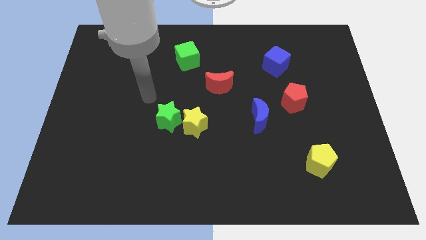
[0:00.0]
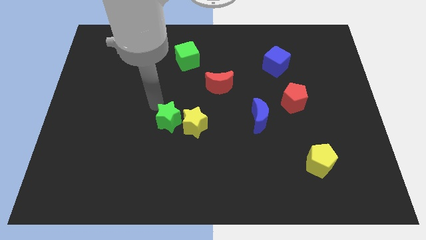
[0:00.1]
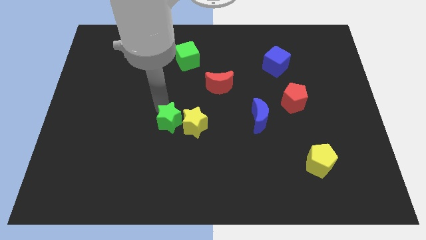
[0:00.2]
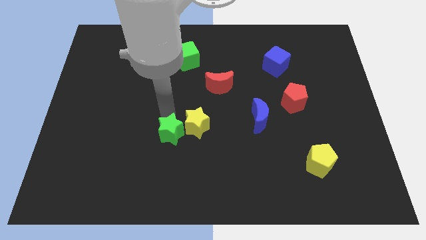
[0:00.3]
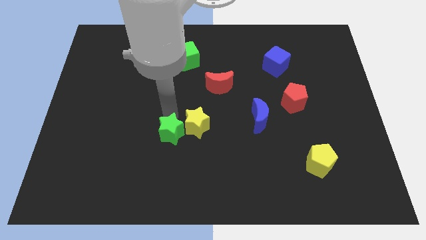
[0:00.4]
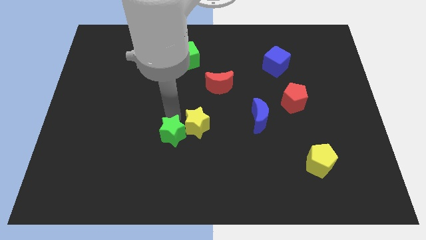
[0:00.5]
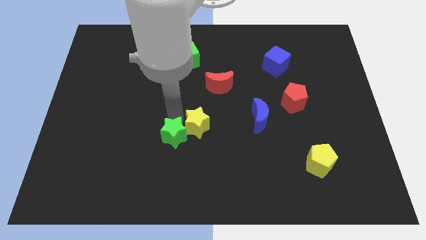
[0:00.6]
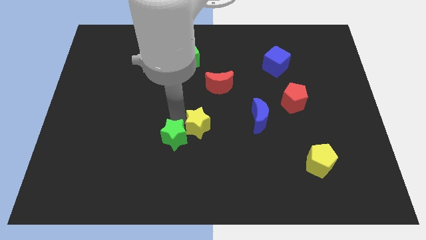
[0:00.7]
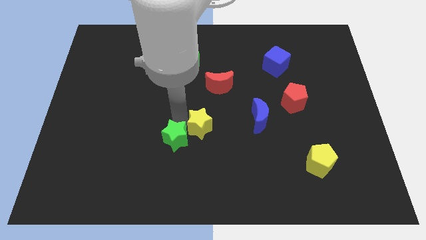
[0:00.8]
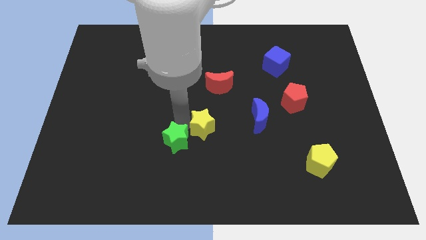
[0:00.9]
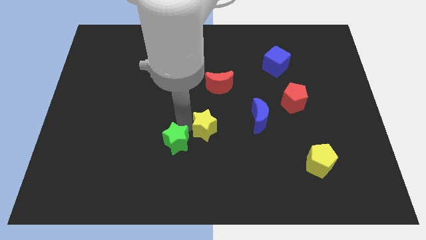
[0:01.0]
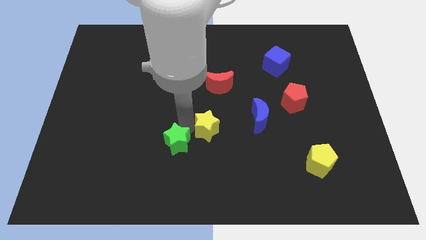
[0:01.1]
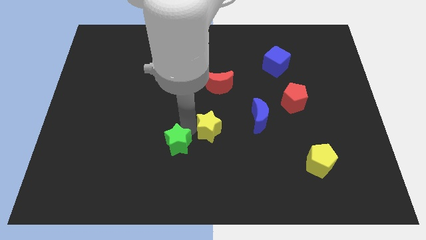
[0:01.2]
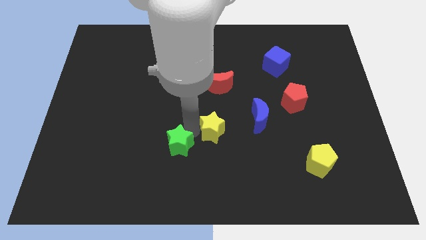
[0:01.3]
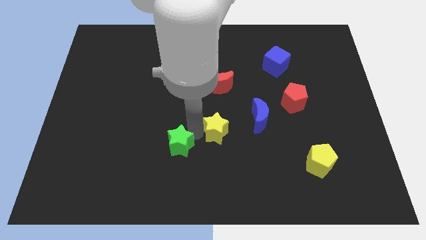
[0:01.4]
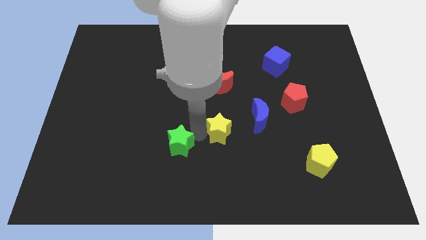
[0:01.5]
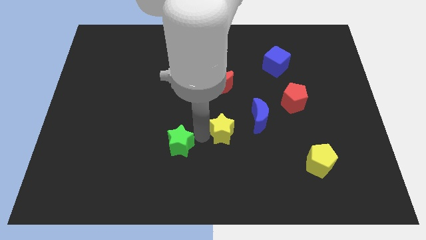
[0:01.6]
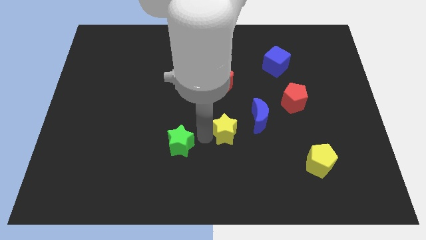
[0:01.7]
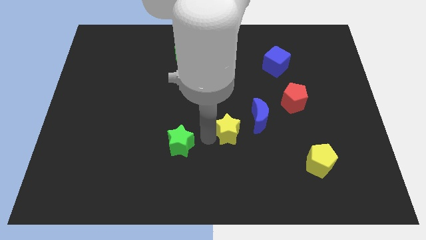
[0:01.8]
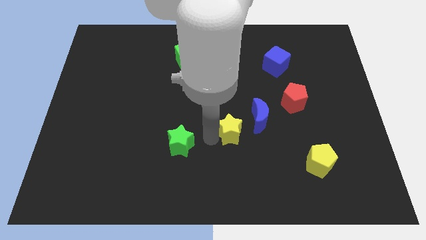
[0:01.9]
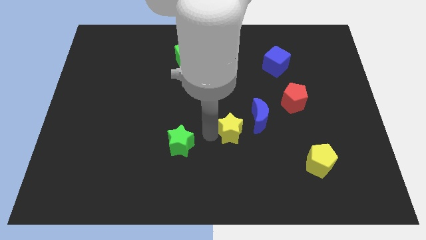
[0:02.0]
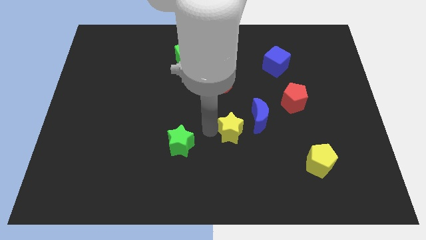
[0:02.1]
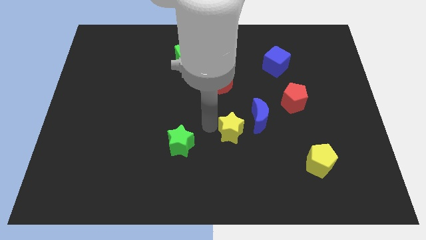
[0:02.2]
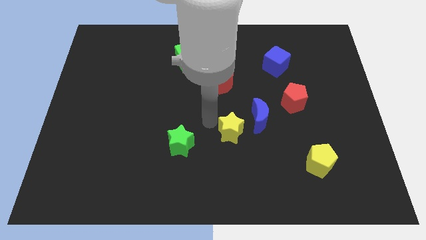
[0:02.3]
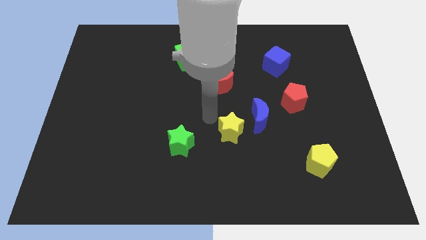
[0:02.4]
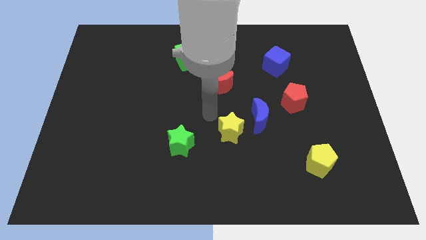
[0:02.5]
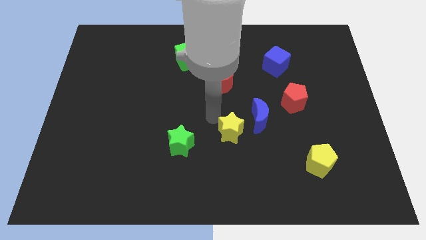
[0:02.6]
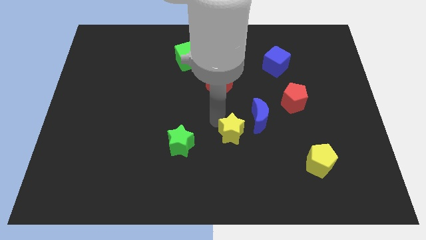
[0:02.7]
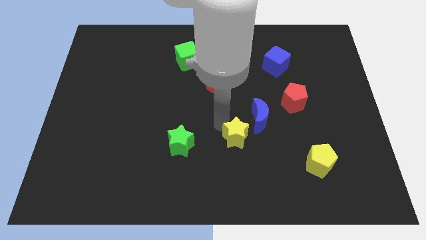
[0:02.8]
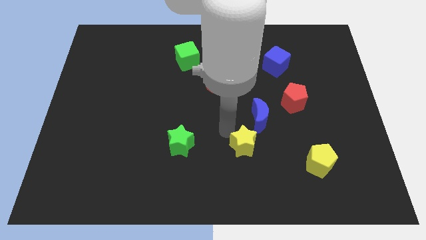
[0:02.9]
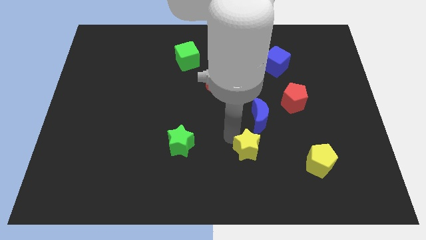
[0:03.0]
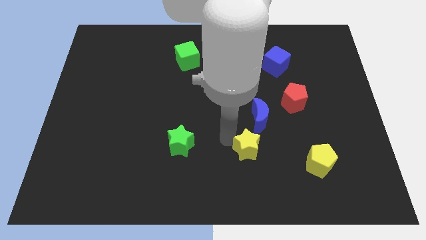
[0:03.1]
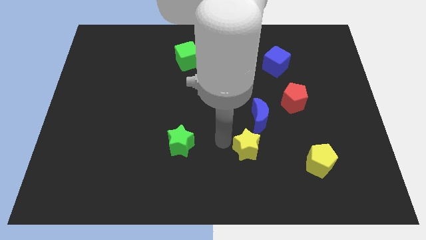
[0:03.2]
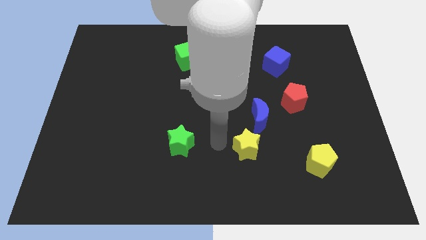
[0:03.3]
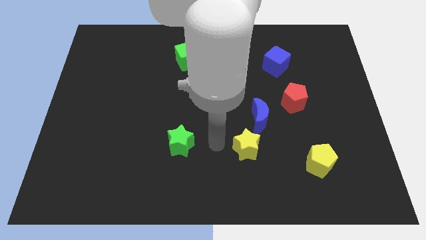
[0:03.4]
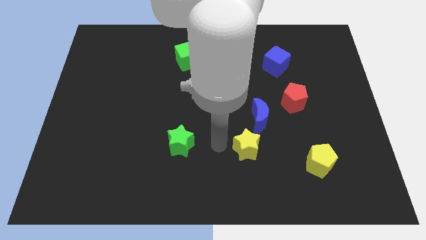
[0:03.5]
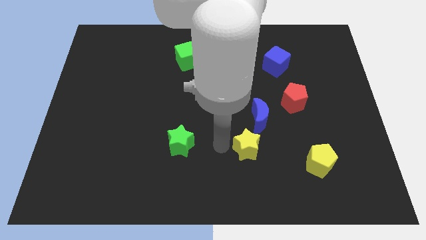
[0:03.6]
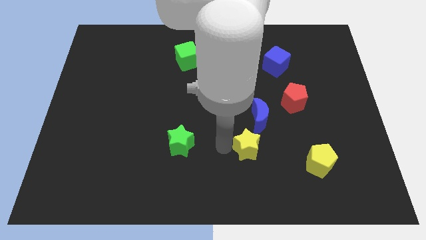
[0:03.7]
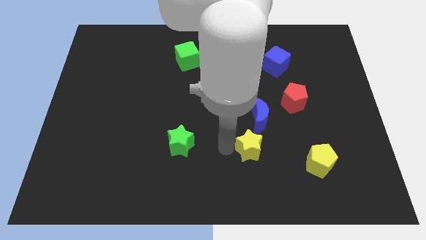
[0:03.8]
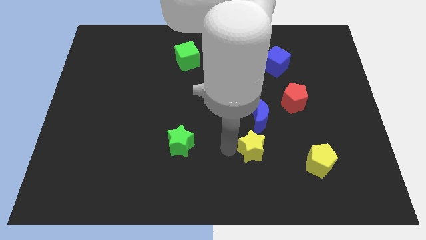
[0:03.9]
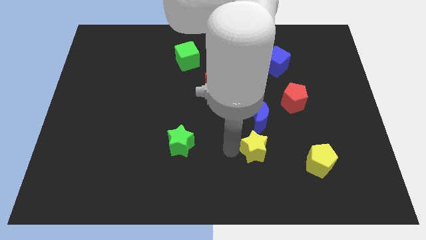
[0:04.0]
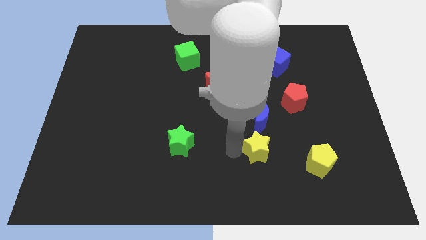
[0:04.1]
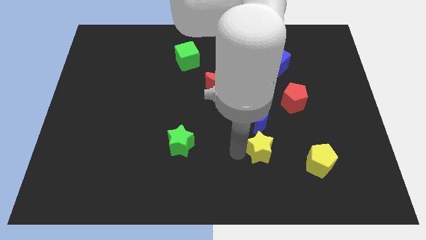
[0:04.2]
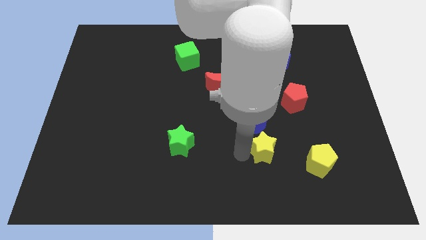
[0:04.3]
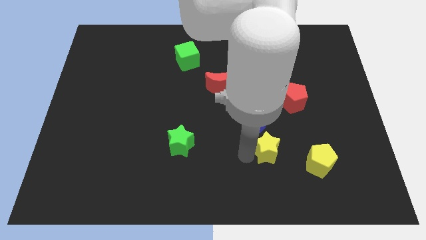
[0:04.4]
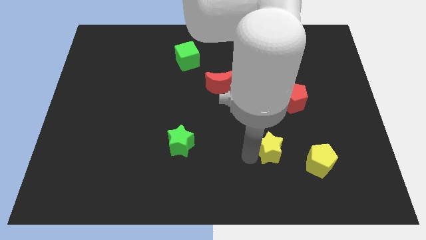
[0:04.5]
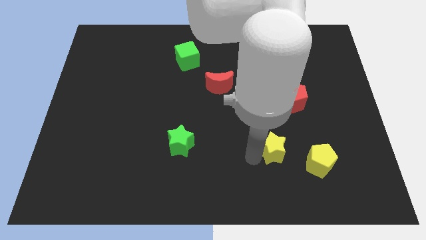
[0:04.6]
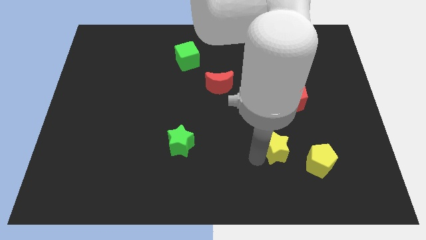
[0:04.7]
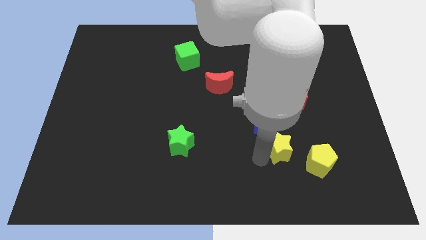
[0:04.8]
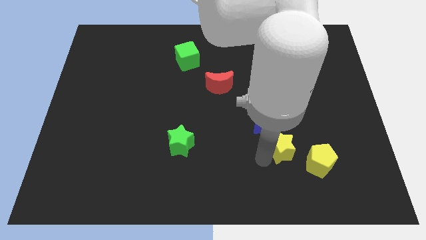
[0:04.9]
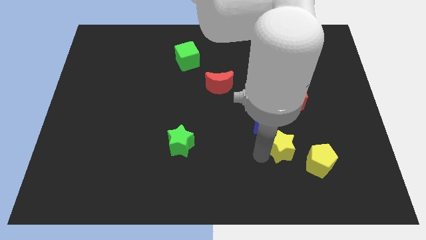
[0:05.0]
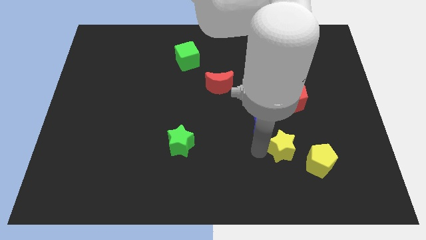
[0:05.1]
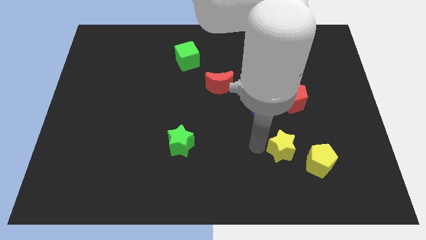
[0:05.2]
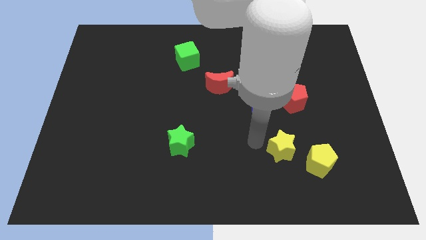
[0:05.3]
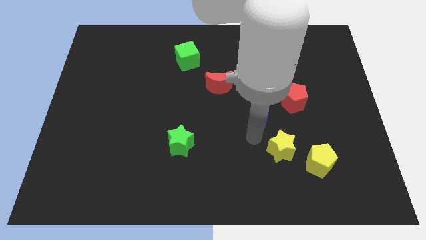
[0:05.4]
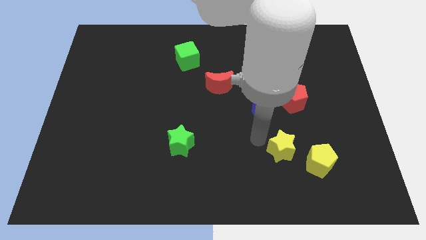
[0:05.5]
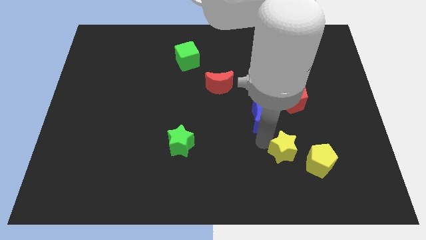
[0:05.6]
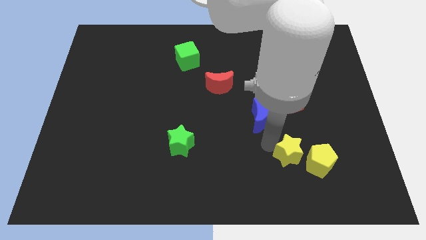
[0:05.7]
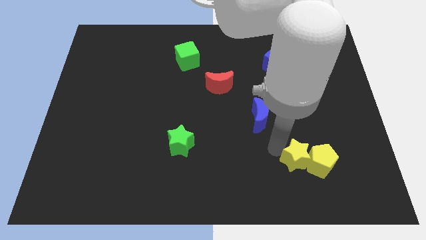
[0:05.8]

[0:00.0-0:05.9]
put the yellow star next to the yellow pentagon

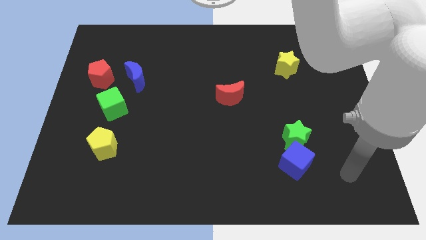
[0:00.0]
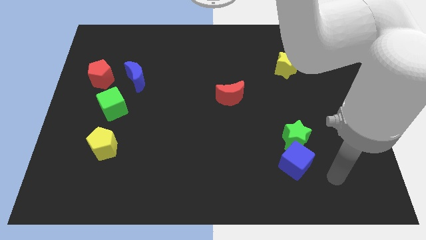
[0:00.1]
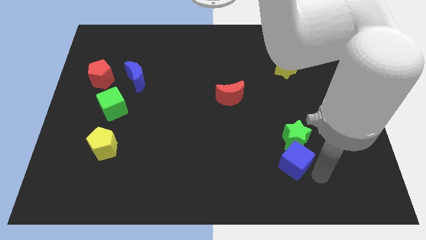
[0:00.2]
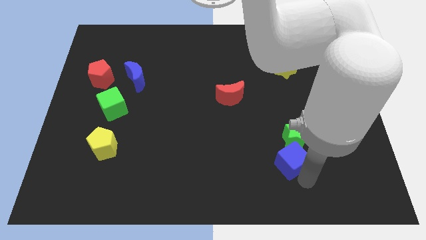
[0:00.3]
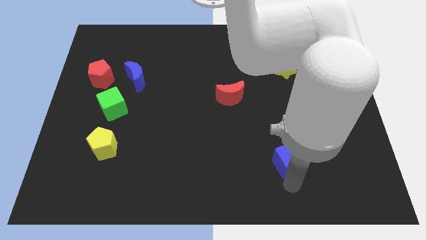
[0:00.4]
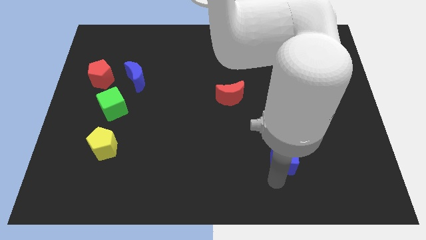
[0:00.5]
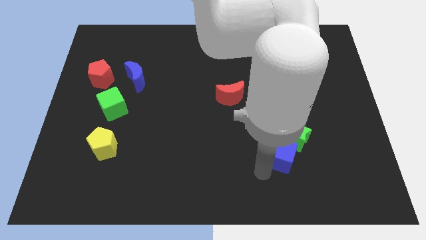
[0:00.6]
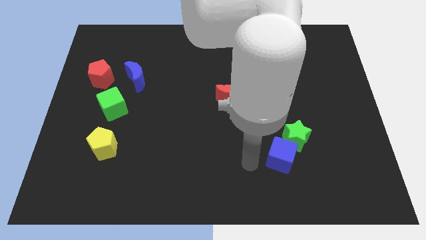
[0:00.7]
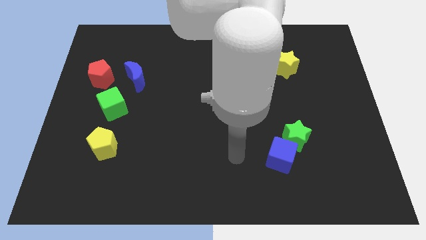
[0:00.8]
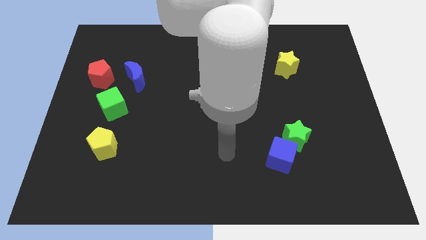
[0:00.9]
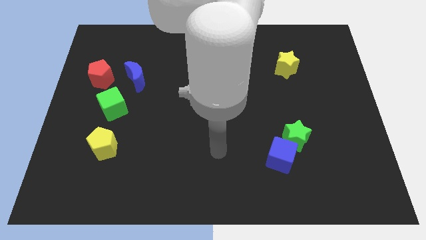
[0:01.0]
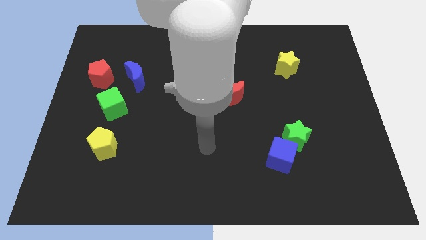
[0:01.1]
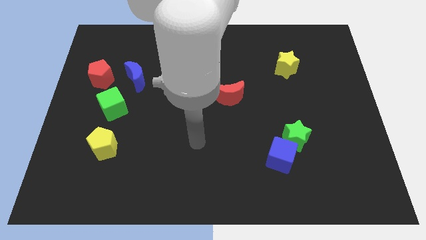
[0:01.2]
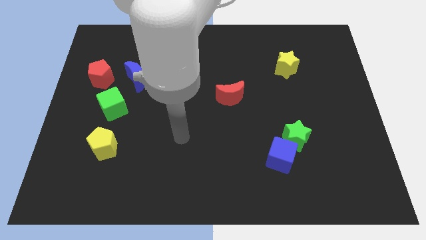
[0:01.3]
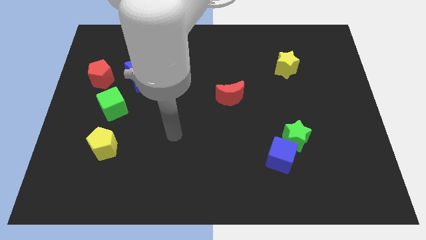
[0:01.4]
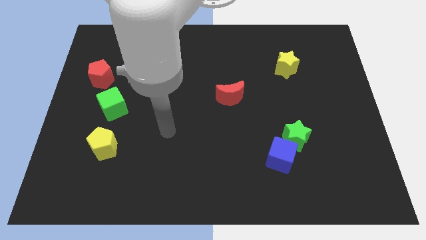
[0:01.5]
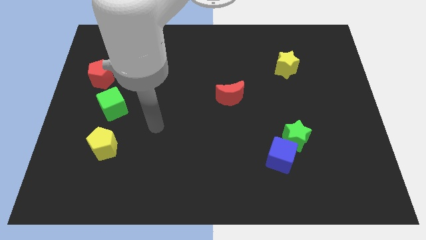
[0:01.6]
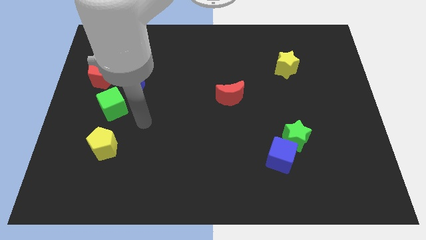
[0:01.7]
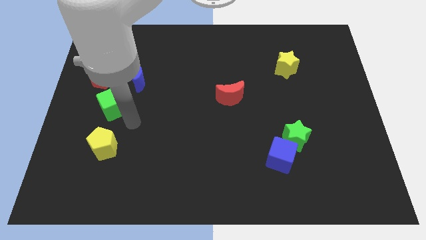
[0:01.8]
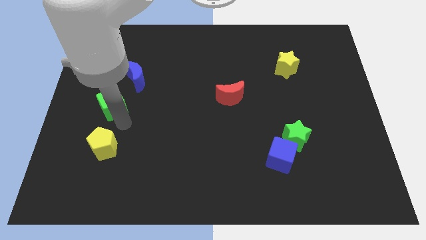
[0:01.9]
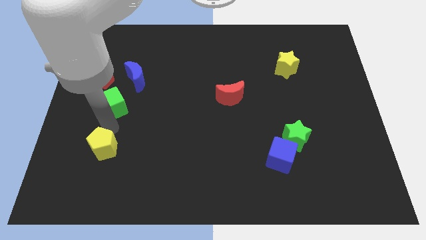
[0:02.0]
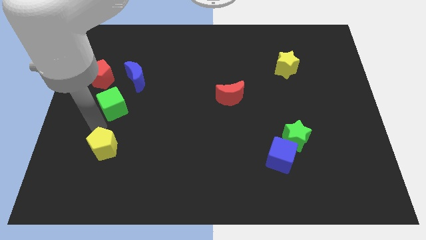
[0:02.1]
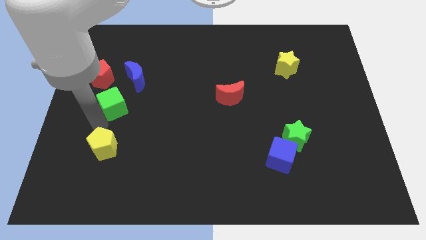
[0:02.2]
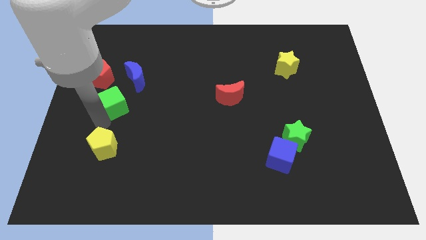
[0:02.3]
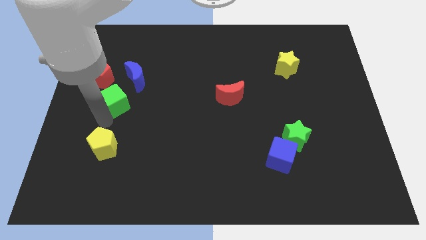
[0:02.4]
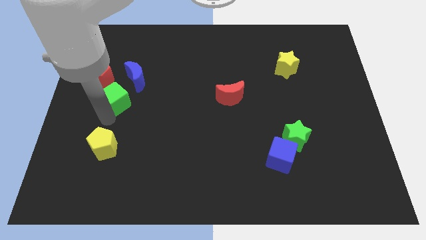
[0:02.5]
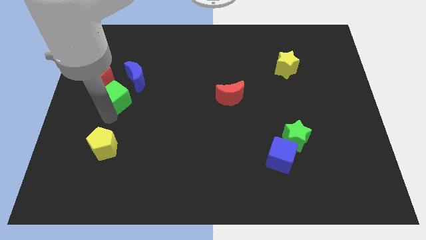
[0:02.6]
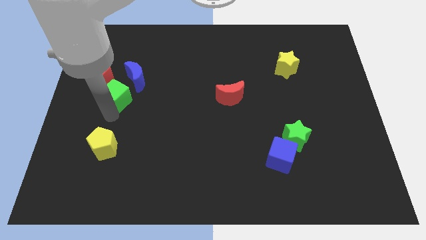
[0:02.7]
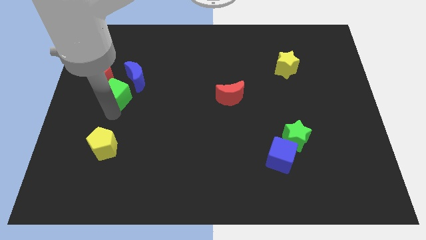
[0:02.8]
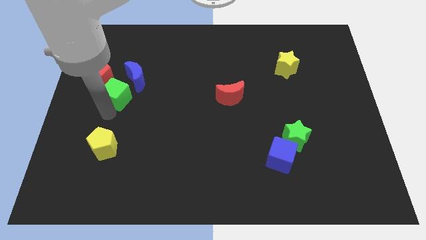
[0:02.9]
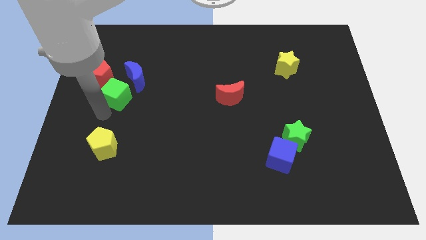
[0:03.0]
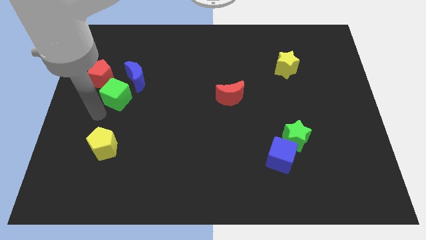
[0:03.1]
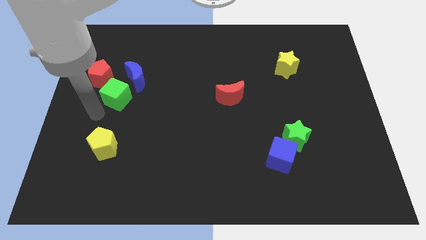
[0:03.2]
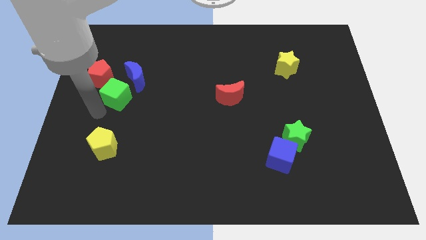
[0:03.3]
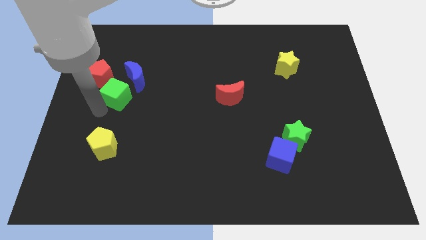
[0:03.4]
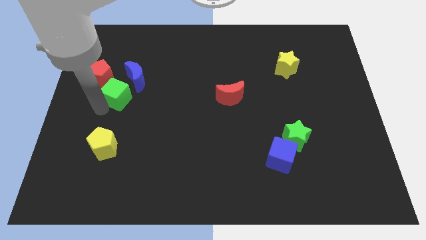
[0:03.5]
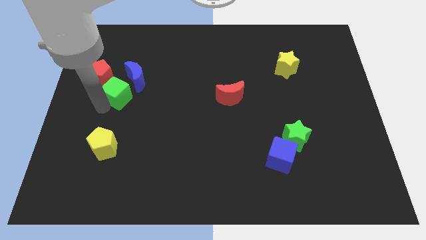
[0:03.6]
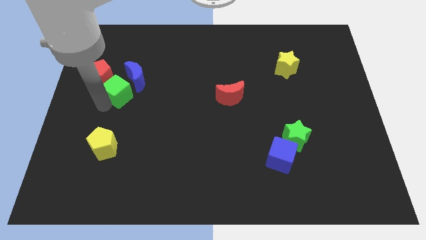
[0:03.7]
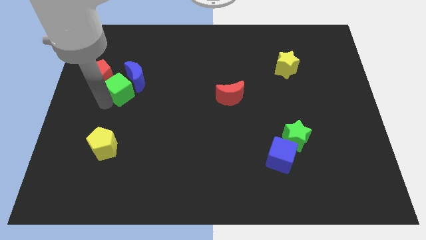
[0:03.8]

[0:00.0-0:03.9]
move the green cube close to the blue moon
